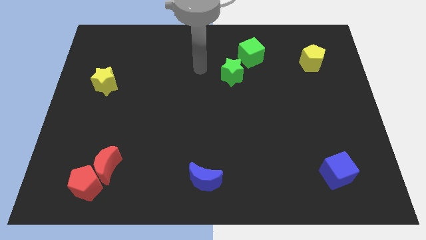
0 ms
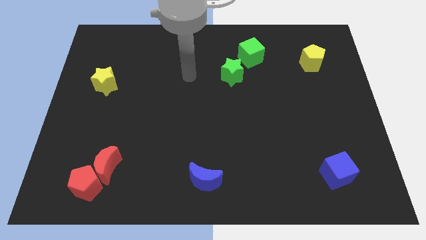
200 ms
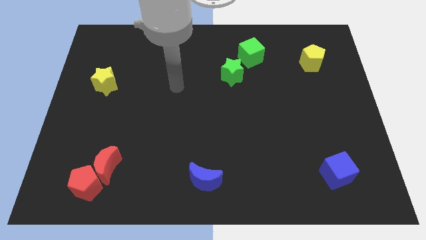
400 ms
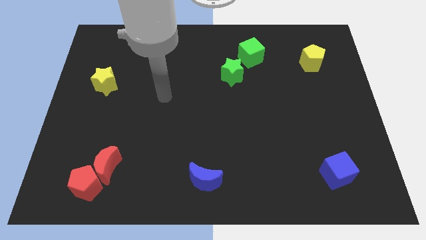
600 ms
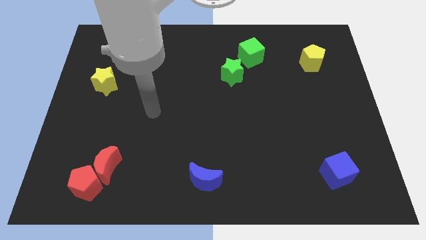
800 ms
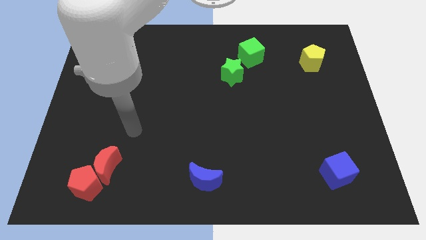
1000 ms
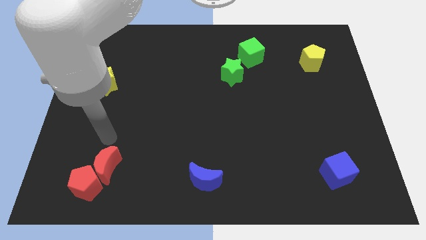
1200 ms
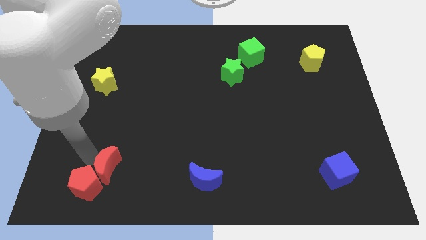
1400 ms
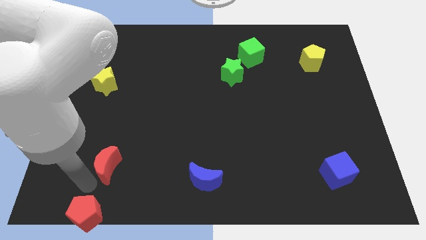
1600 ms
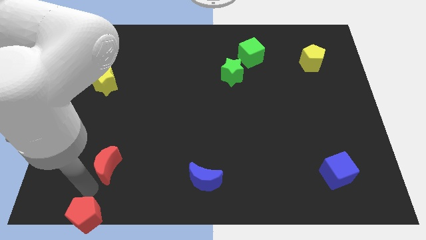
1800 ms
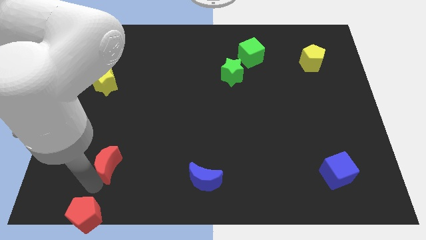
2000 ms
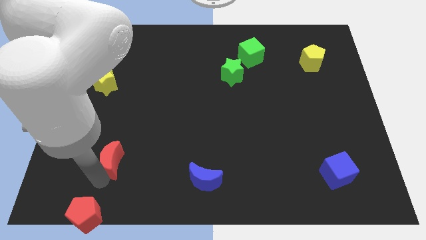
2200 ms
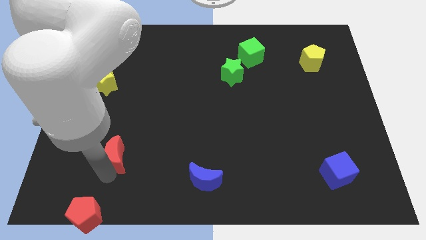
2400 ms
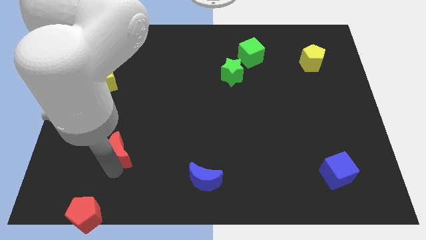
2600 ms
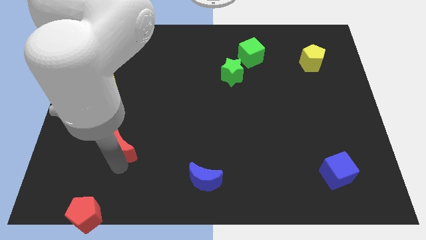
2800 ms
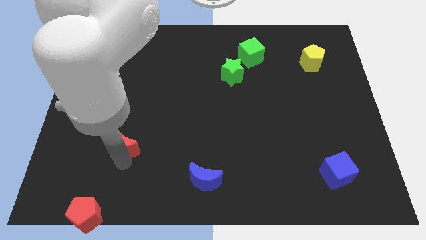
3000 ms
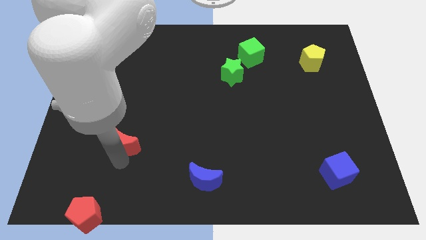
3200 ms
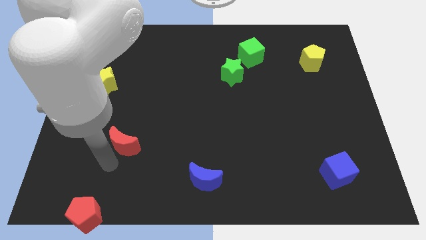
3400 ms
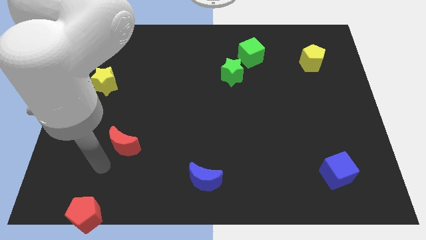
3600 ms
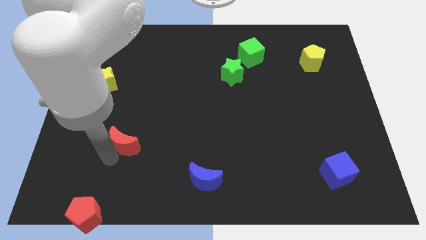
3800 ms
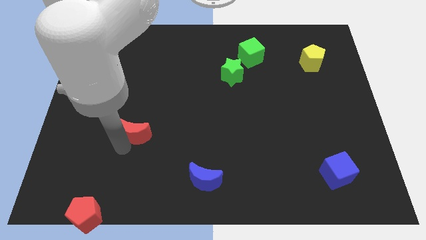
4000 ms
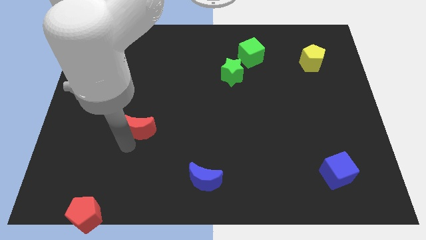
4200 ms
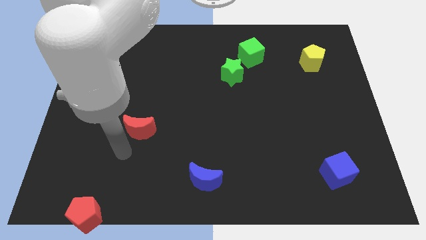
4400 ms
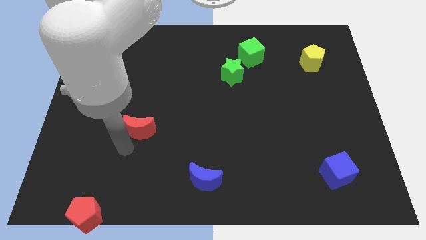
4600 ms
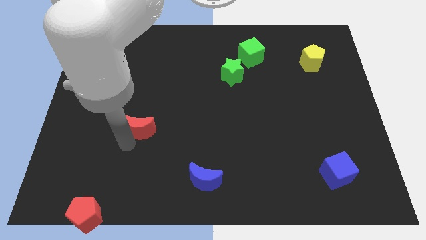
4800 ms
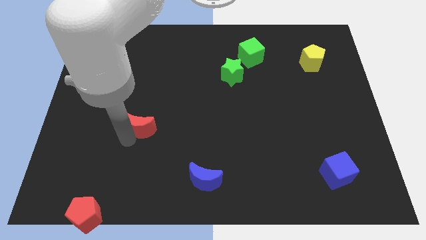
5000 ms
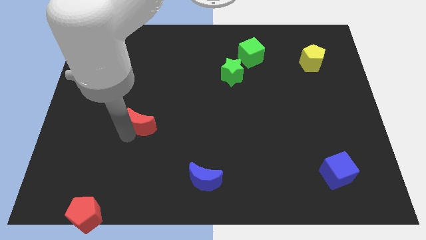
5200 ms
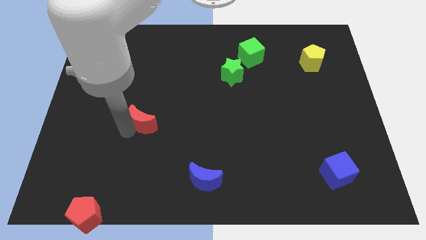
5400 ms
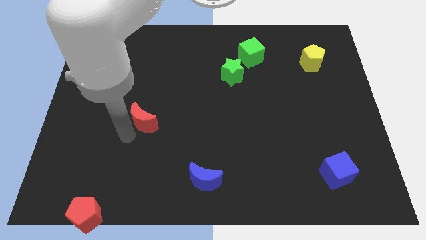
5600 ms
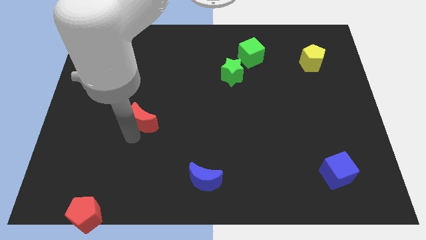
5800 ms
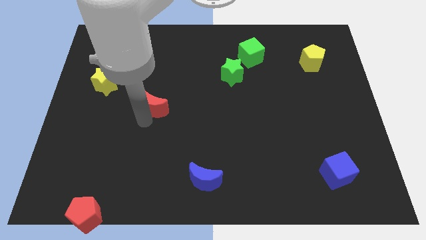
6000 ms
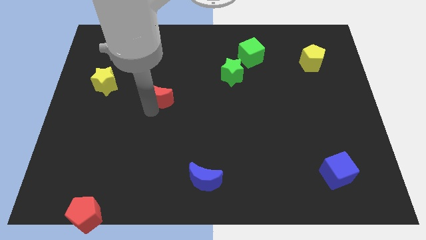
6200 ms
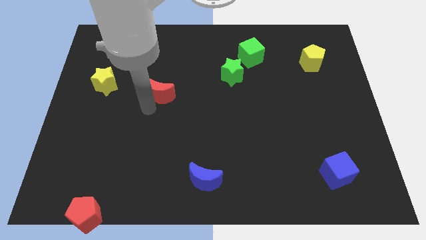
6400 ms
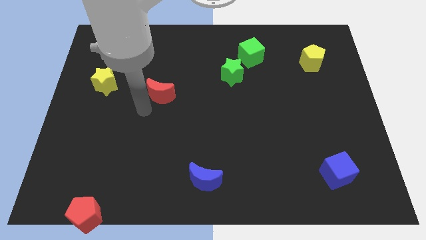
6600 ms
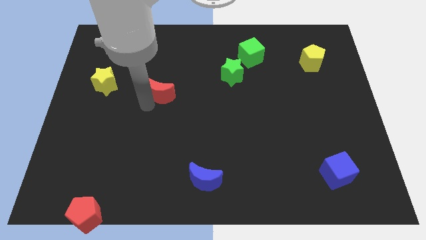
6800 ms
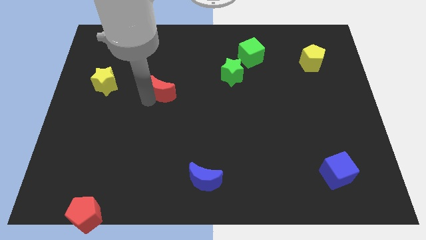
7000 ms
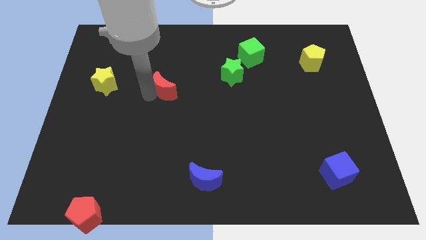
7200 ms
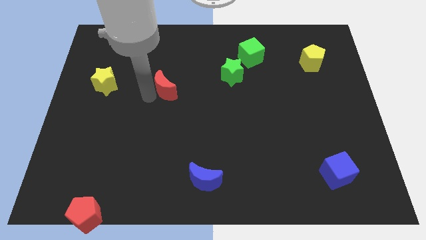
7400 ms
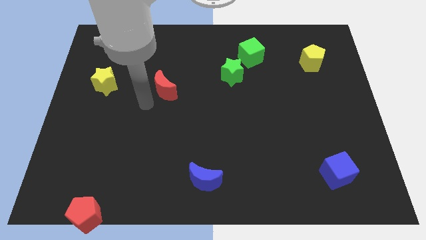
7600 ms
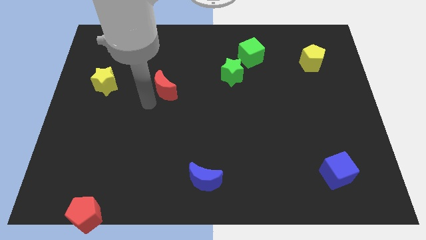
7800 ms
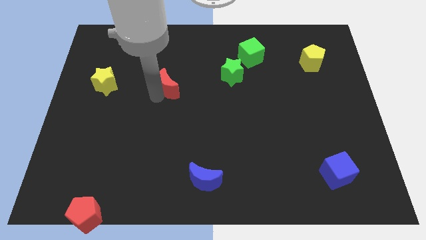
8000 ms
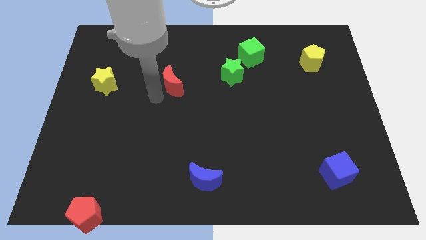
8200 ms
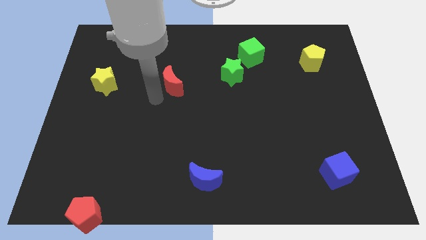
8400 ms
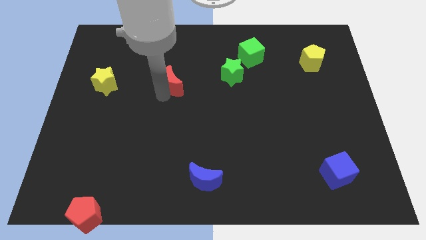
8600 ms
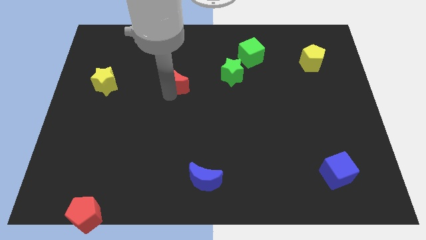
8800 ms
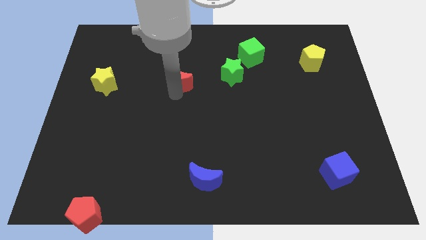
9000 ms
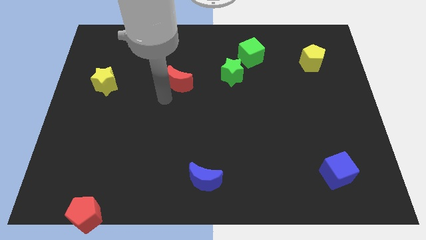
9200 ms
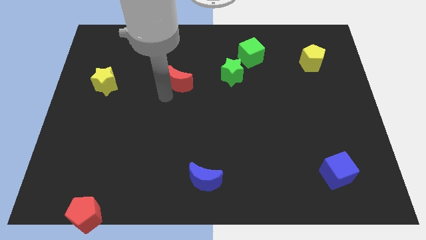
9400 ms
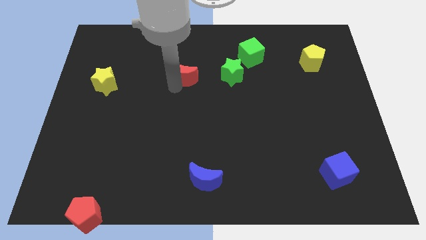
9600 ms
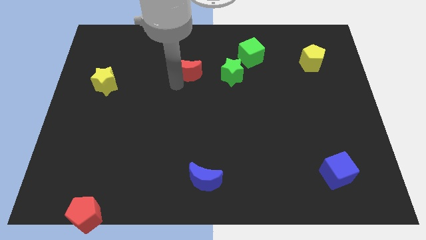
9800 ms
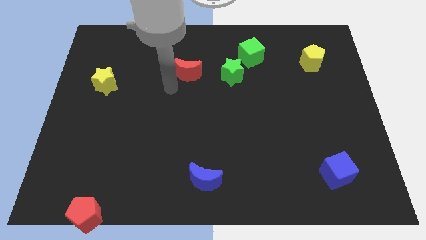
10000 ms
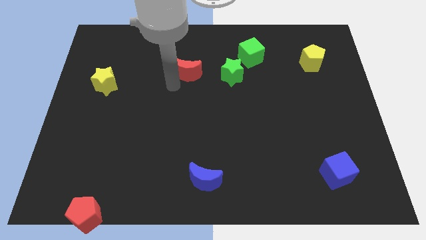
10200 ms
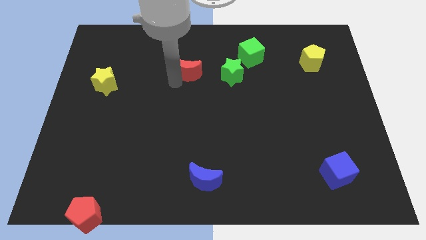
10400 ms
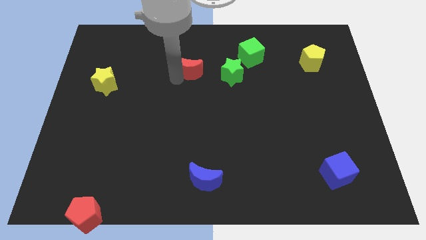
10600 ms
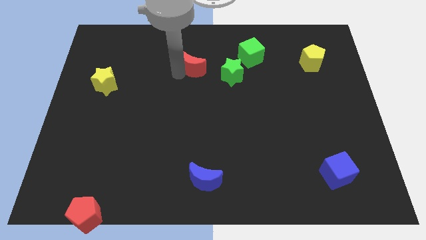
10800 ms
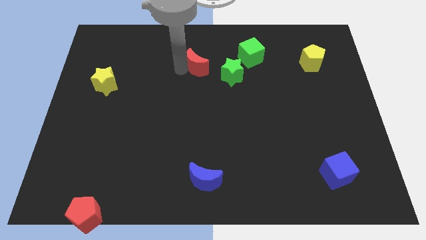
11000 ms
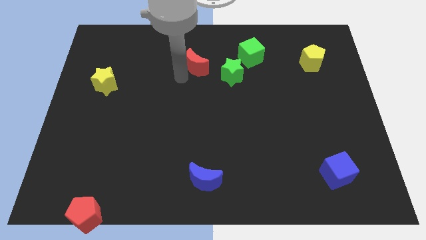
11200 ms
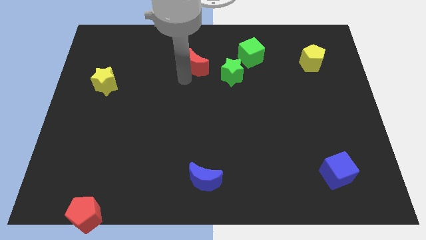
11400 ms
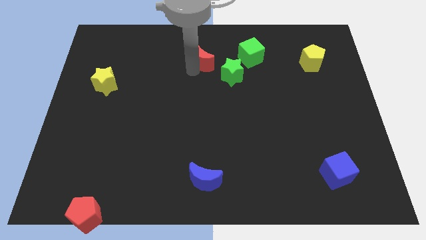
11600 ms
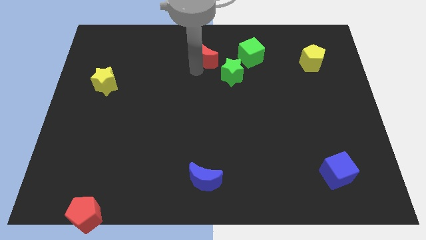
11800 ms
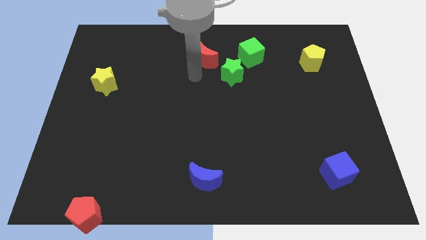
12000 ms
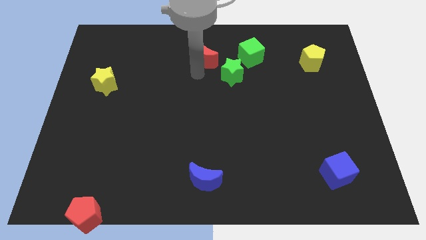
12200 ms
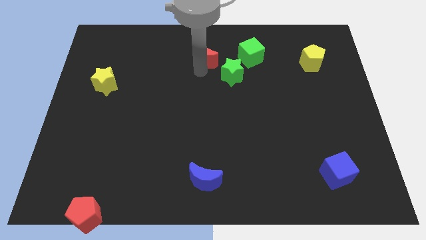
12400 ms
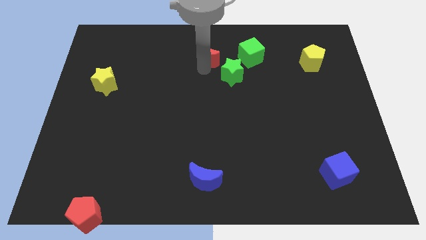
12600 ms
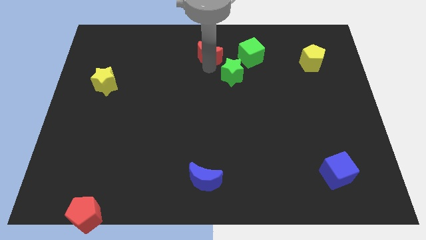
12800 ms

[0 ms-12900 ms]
move the red moon to the top side
